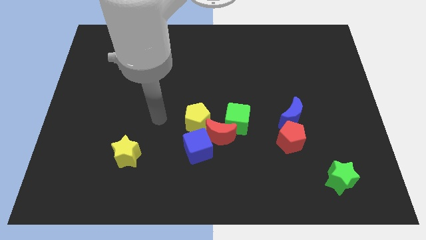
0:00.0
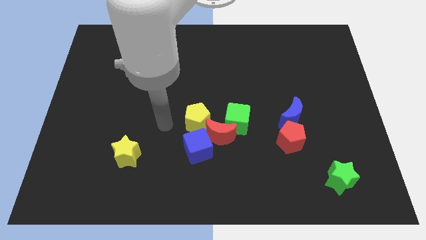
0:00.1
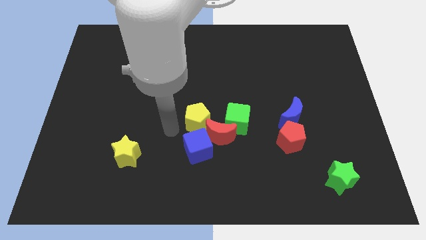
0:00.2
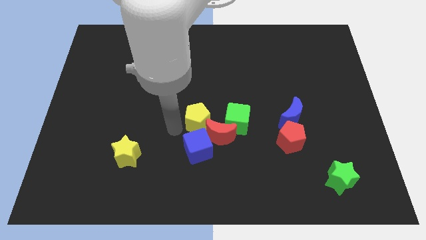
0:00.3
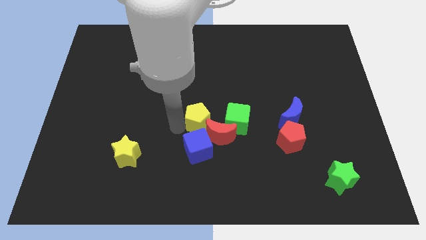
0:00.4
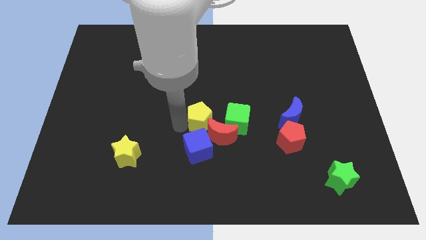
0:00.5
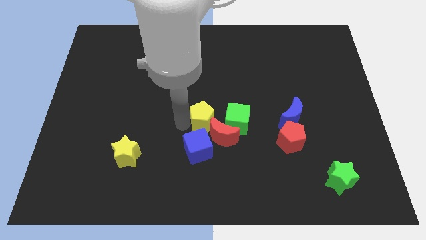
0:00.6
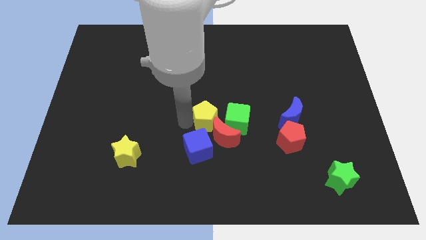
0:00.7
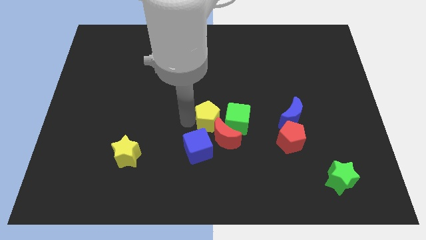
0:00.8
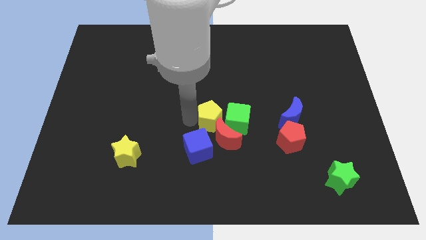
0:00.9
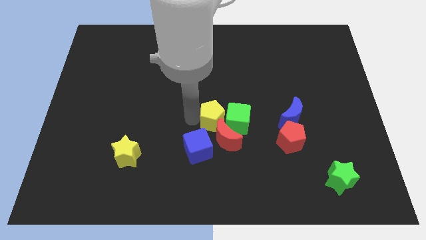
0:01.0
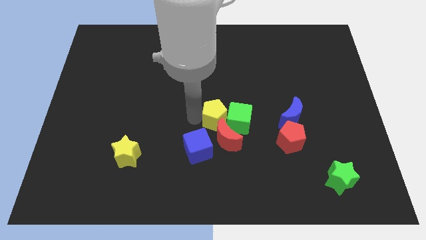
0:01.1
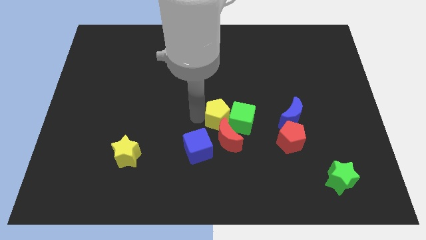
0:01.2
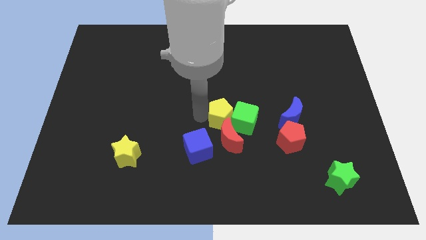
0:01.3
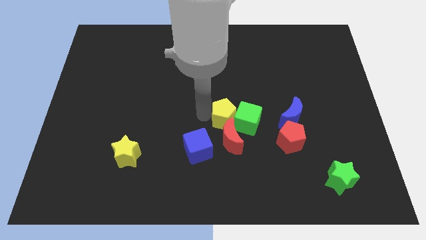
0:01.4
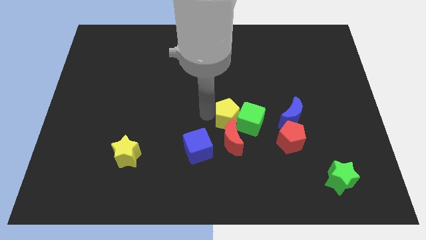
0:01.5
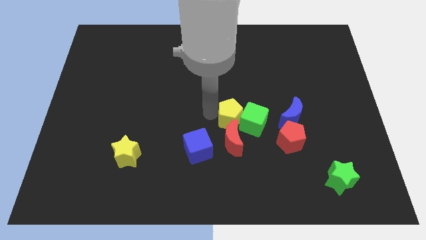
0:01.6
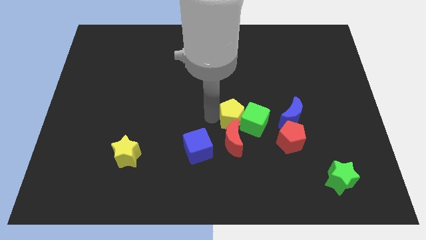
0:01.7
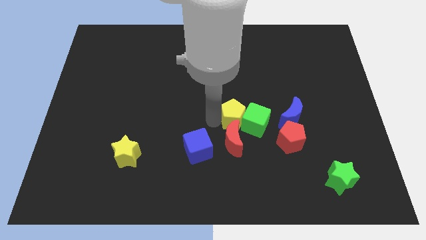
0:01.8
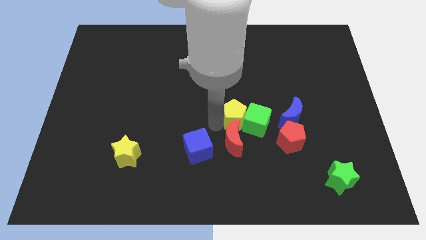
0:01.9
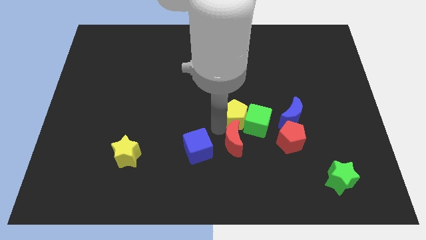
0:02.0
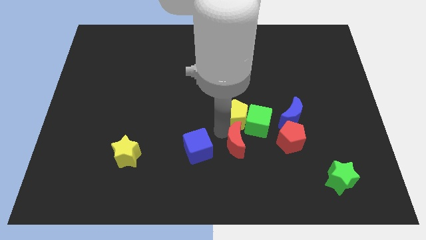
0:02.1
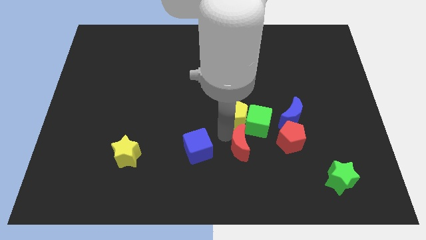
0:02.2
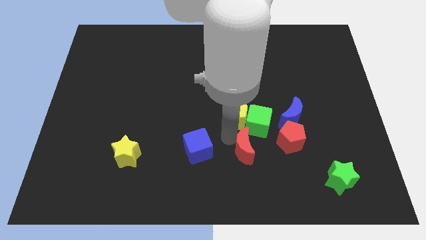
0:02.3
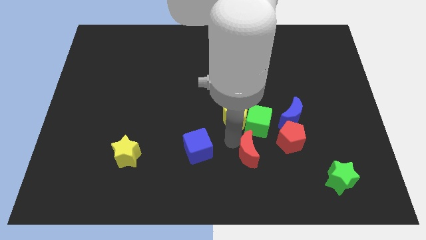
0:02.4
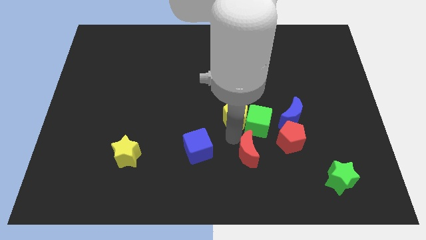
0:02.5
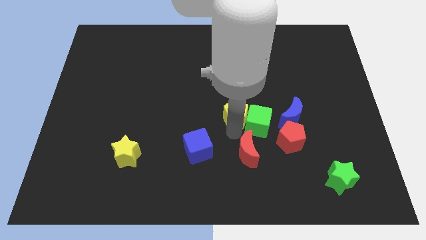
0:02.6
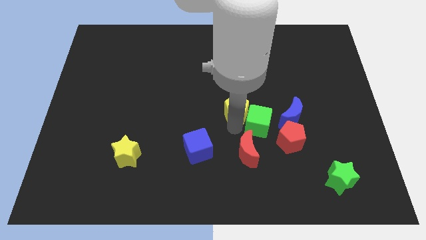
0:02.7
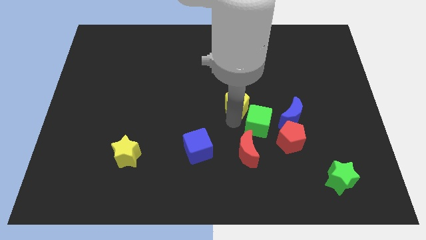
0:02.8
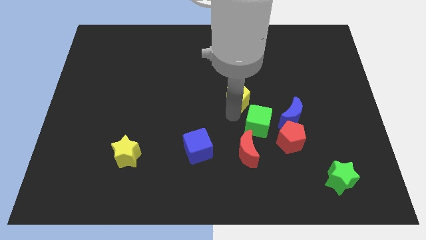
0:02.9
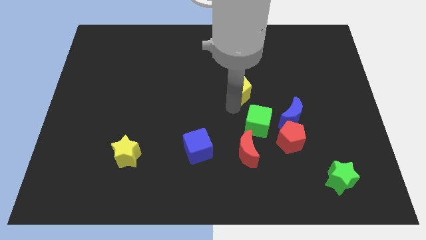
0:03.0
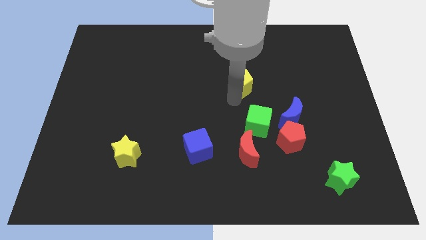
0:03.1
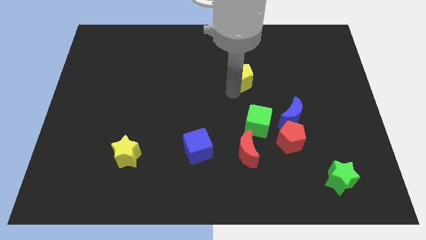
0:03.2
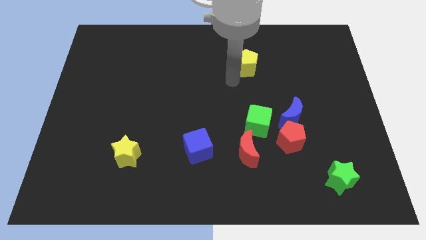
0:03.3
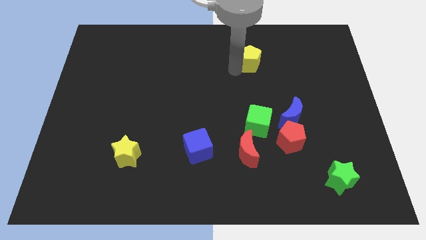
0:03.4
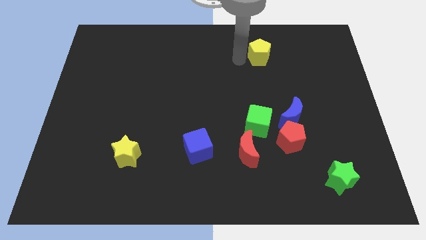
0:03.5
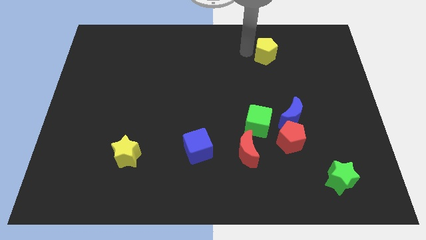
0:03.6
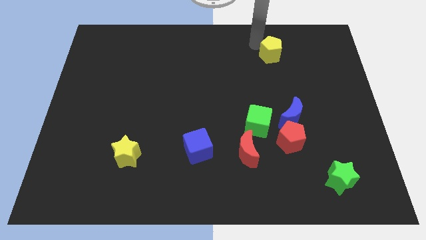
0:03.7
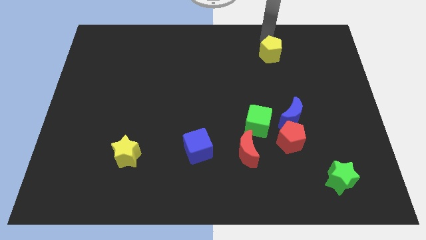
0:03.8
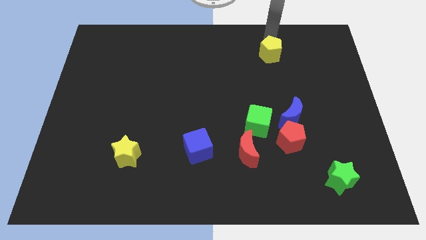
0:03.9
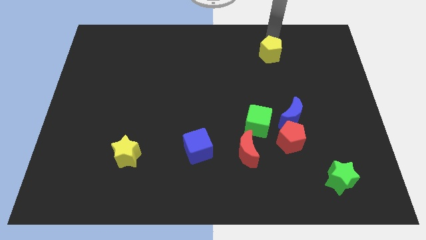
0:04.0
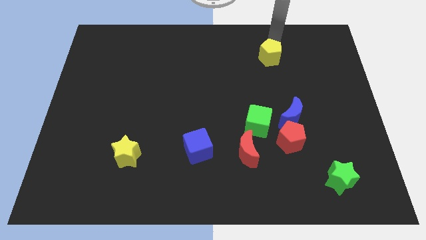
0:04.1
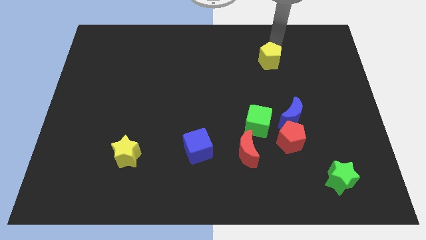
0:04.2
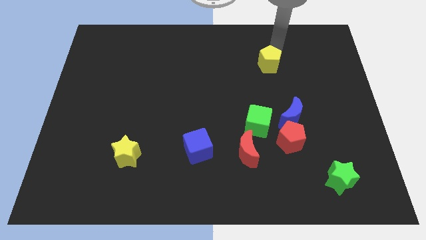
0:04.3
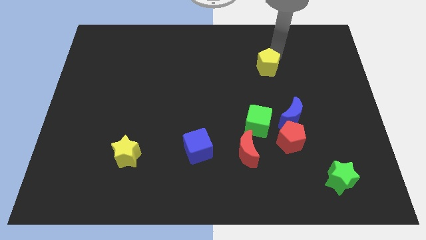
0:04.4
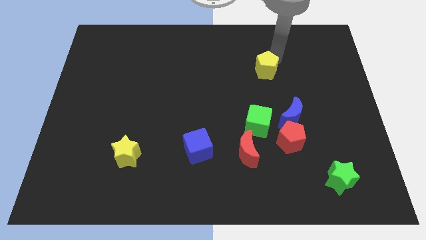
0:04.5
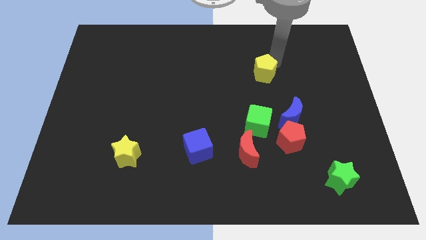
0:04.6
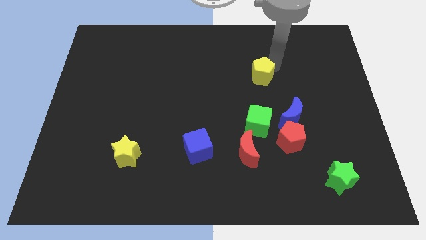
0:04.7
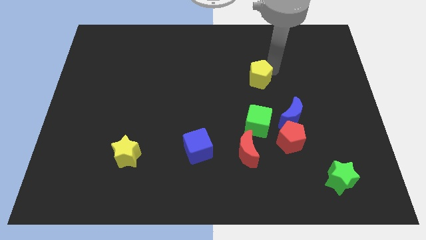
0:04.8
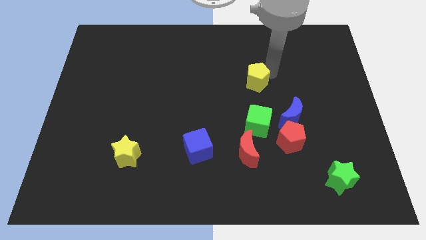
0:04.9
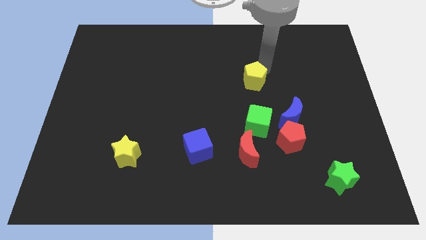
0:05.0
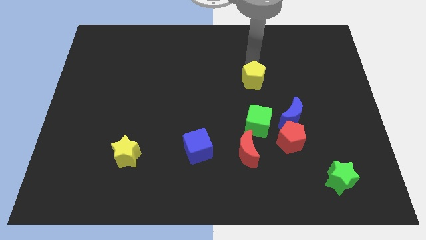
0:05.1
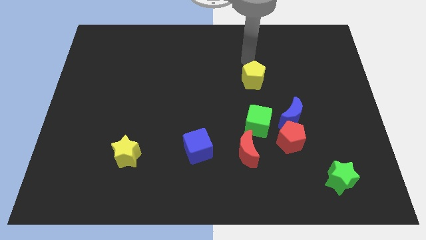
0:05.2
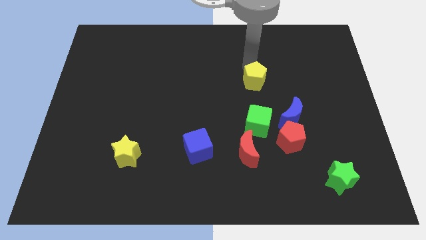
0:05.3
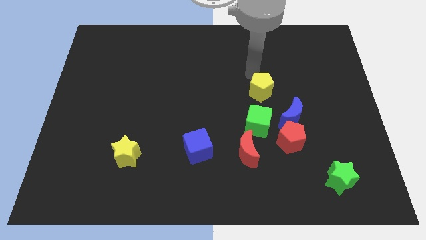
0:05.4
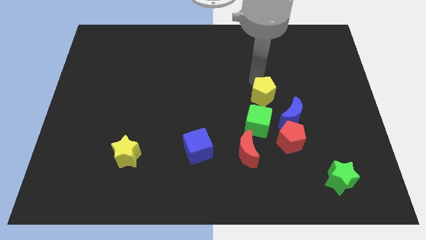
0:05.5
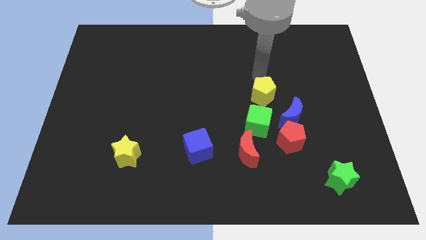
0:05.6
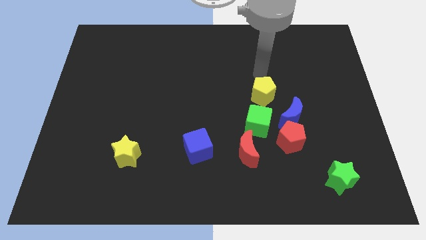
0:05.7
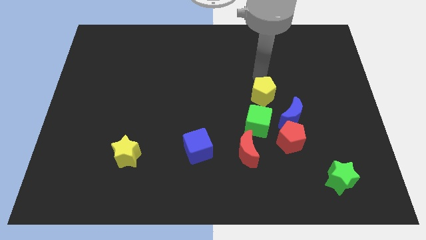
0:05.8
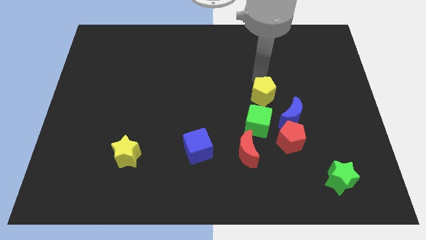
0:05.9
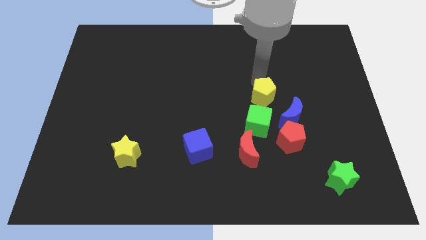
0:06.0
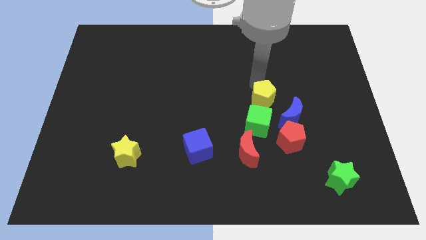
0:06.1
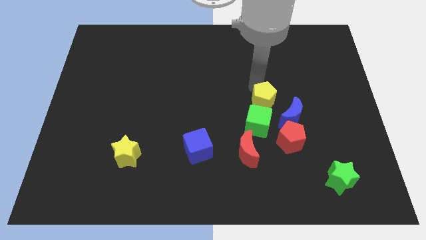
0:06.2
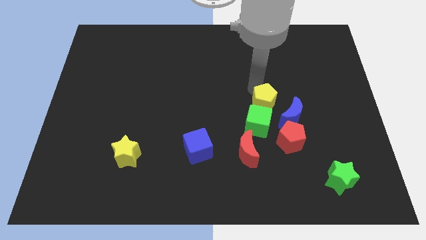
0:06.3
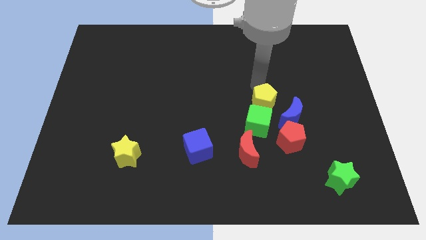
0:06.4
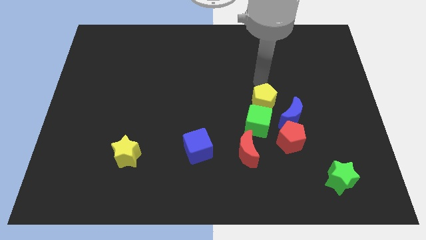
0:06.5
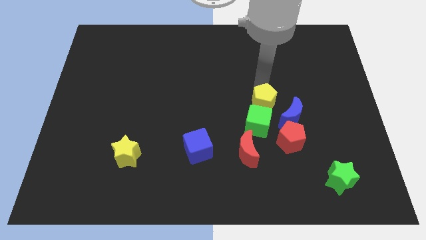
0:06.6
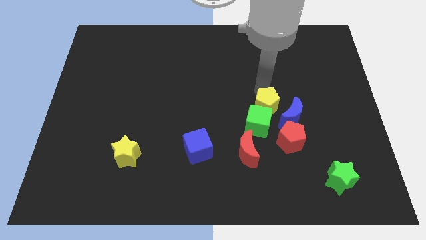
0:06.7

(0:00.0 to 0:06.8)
slide the yellow pentagon diagonally up and to the left of the red pentagon

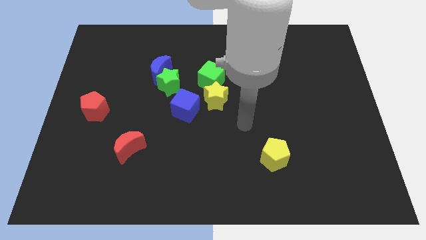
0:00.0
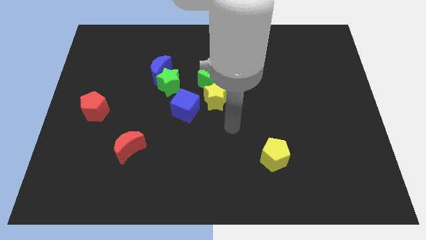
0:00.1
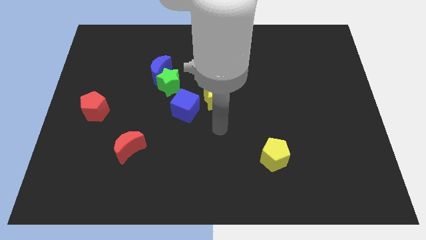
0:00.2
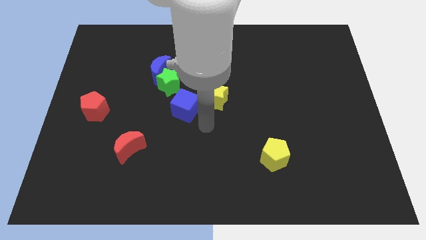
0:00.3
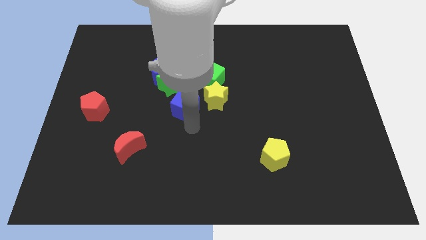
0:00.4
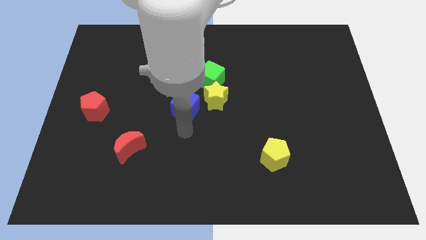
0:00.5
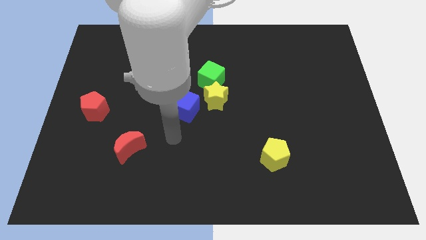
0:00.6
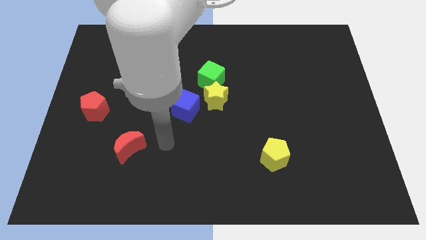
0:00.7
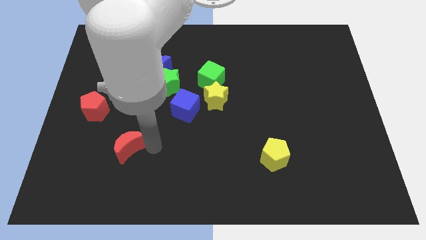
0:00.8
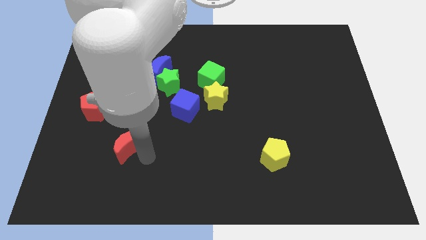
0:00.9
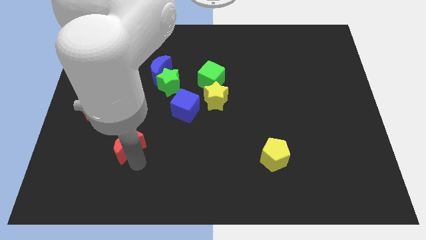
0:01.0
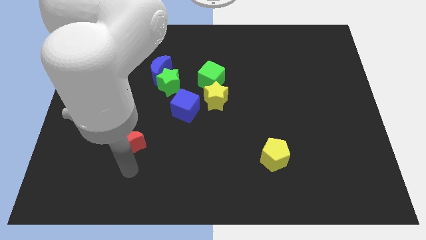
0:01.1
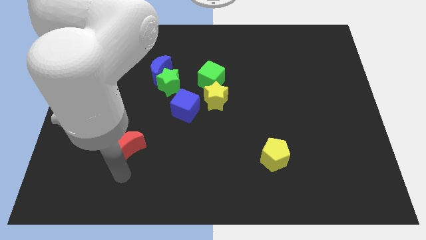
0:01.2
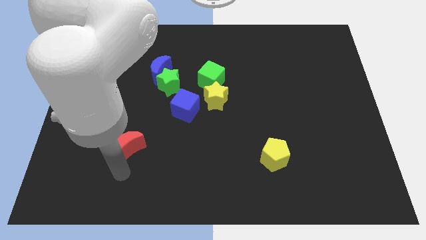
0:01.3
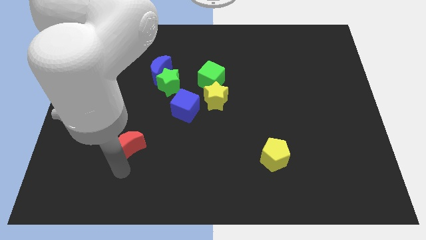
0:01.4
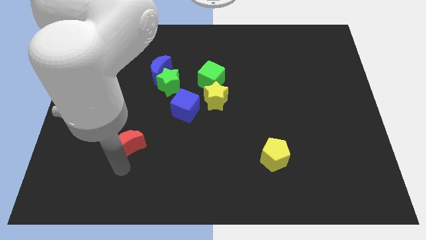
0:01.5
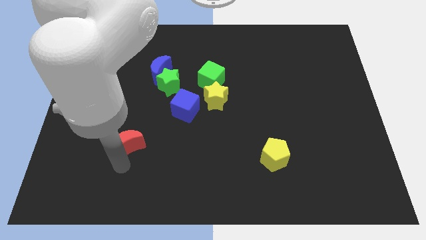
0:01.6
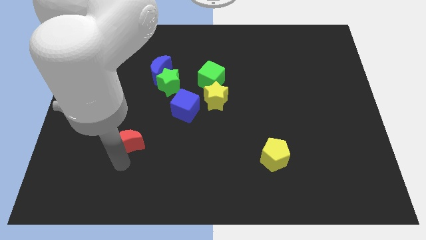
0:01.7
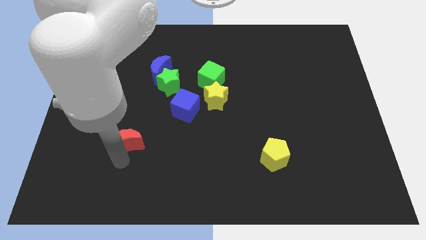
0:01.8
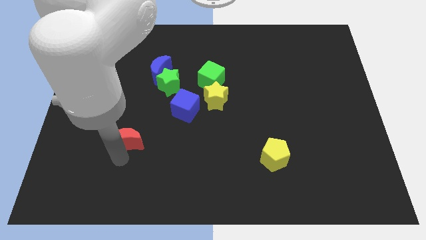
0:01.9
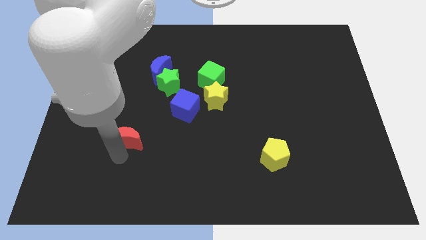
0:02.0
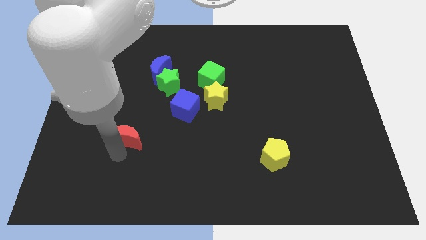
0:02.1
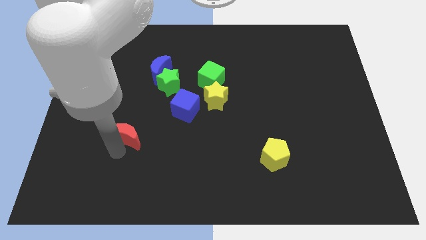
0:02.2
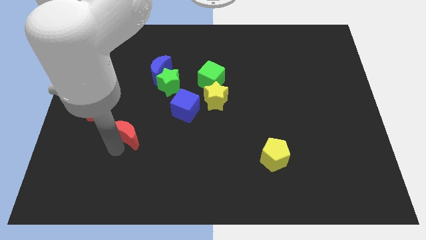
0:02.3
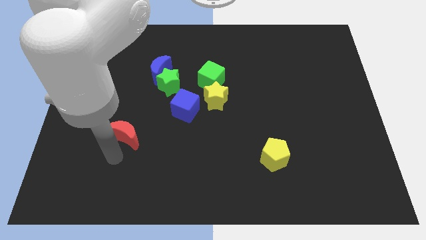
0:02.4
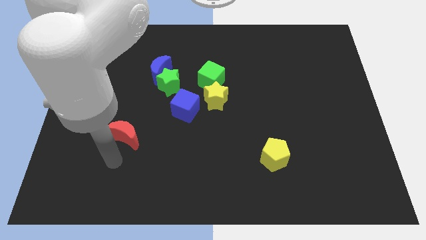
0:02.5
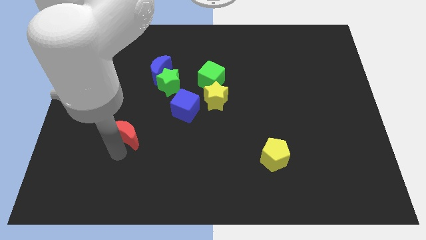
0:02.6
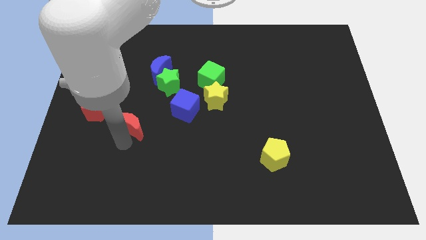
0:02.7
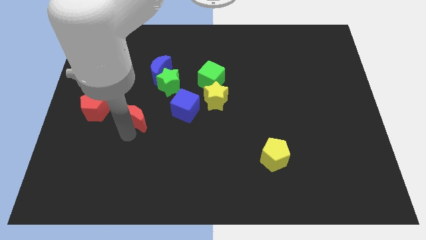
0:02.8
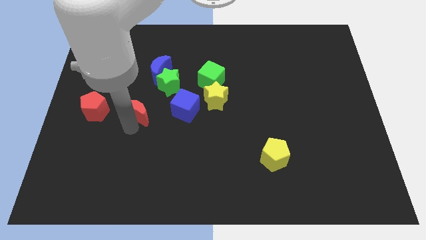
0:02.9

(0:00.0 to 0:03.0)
move the red moon to the bottom left of the green star
